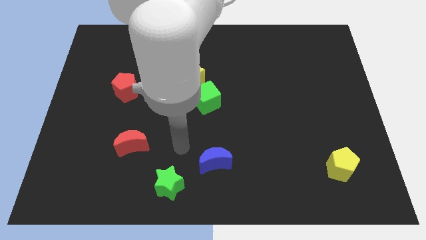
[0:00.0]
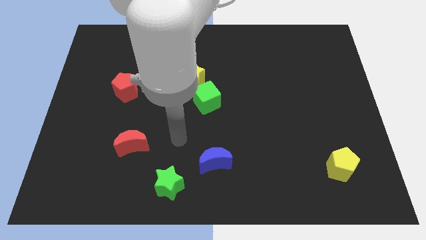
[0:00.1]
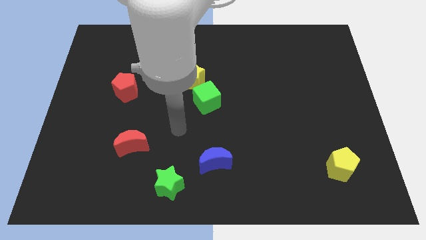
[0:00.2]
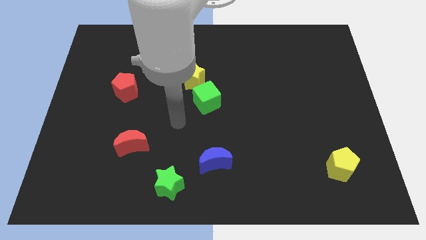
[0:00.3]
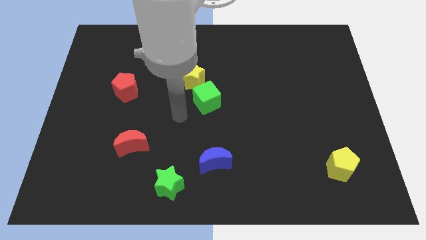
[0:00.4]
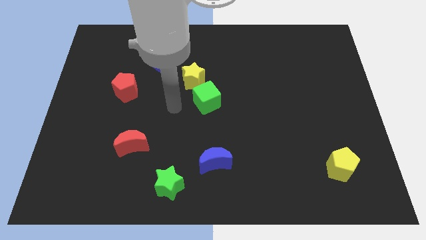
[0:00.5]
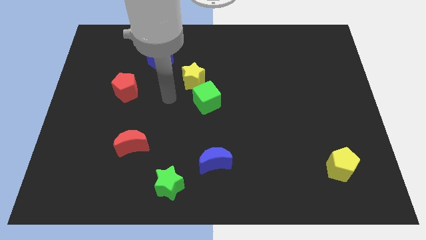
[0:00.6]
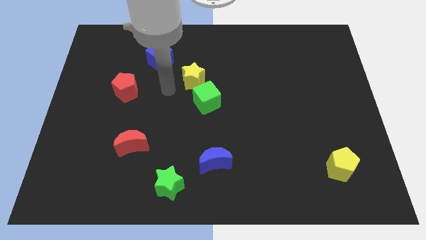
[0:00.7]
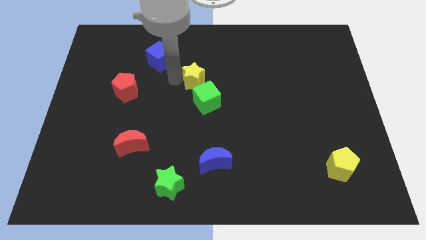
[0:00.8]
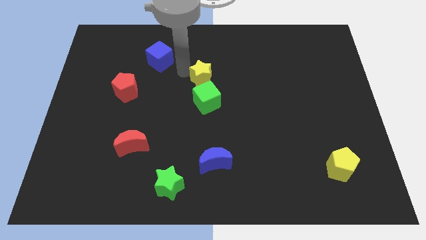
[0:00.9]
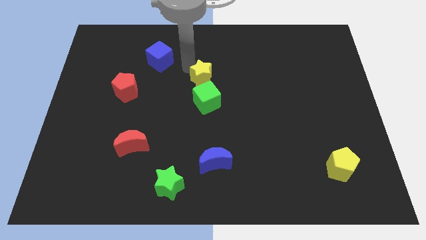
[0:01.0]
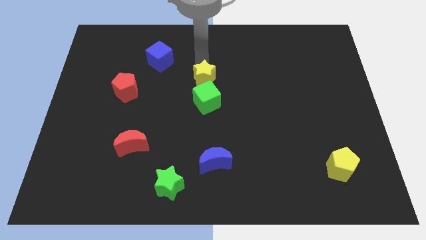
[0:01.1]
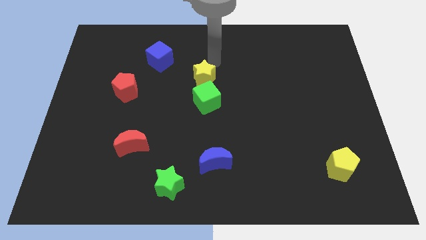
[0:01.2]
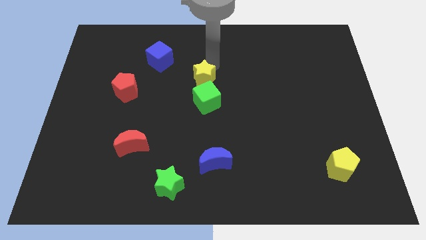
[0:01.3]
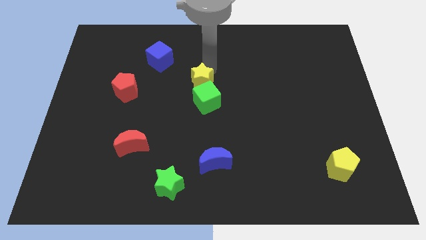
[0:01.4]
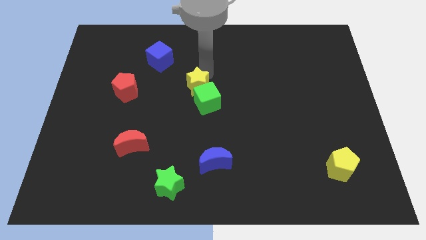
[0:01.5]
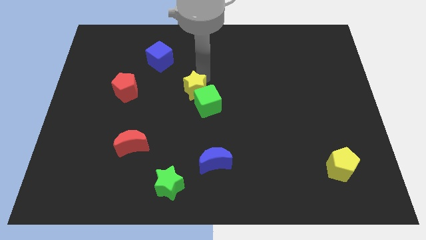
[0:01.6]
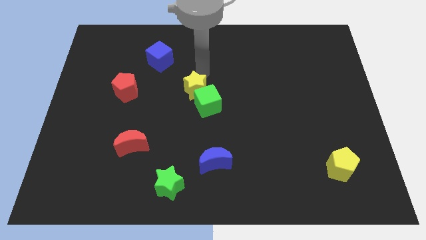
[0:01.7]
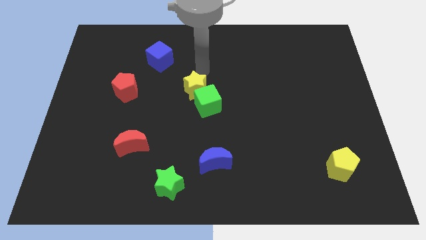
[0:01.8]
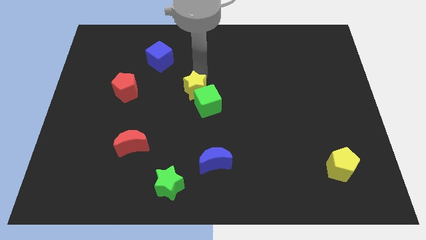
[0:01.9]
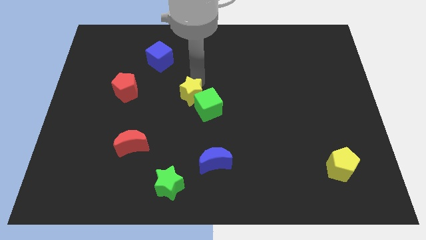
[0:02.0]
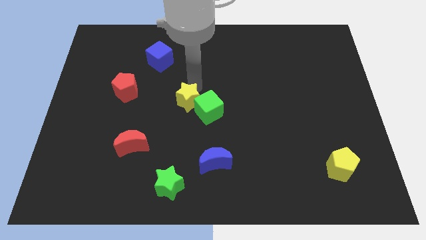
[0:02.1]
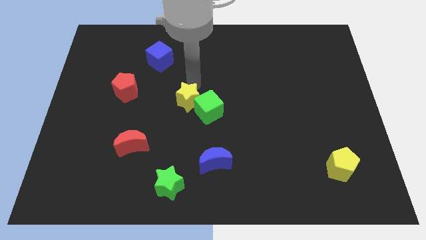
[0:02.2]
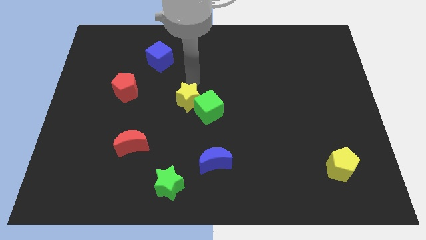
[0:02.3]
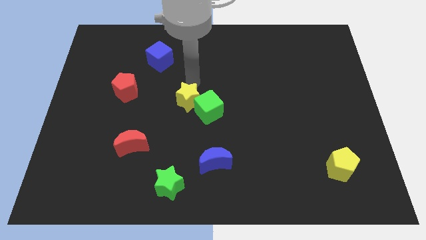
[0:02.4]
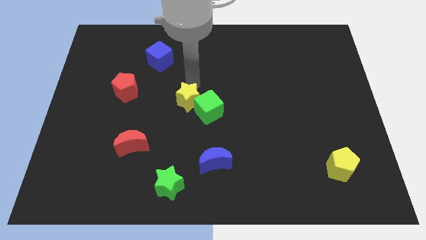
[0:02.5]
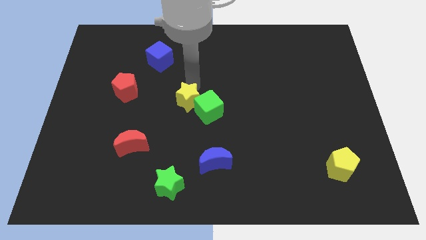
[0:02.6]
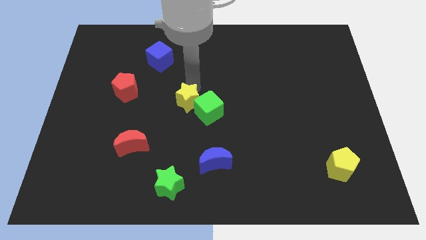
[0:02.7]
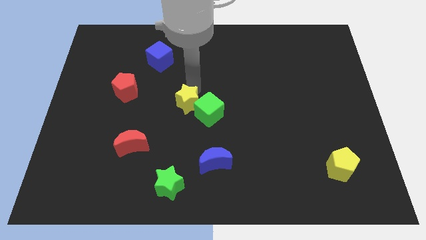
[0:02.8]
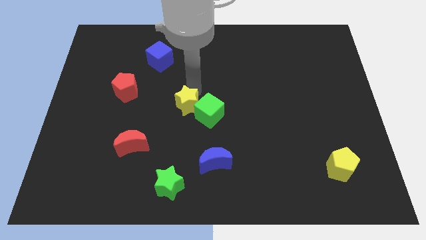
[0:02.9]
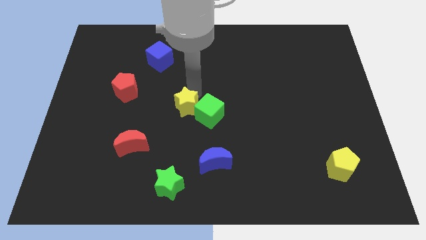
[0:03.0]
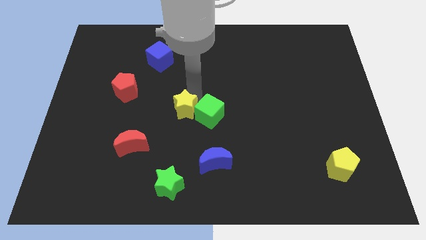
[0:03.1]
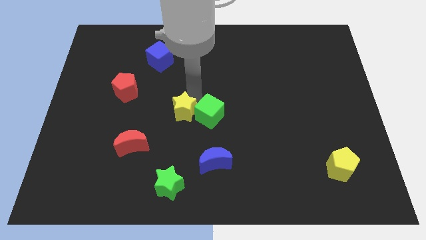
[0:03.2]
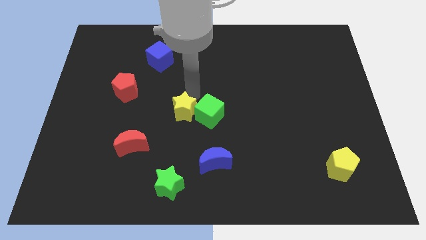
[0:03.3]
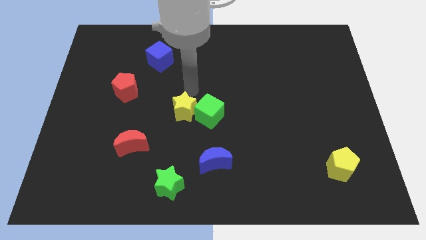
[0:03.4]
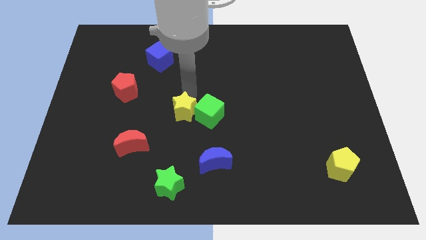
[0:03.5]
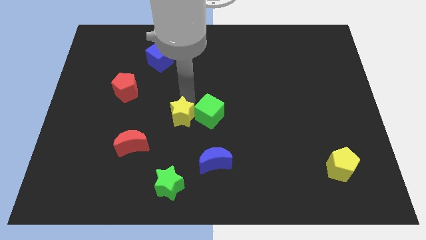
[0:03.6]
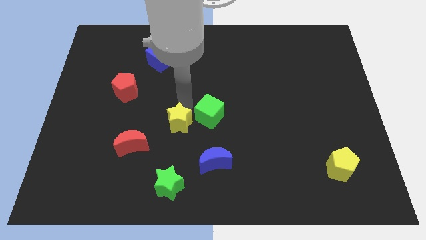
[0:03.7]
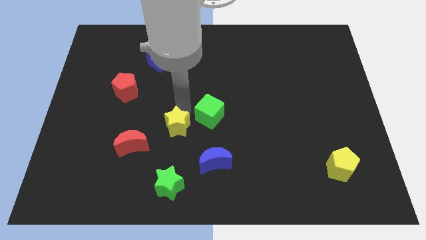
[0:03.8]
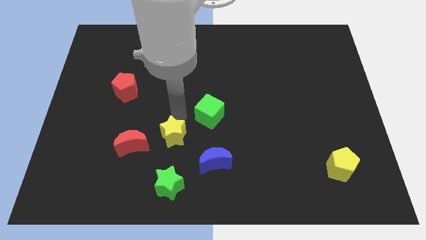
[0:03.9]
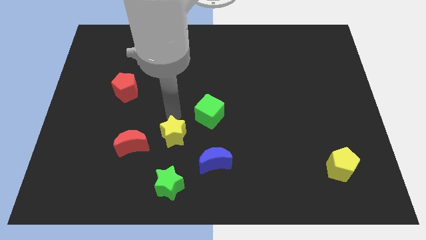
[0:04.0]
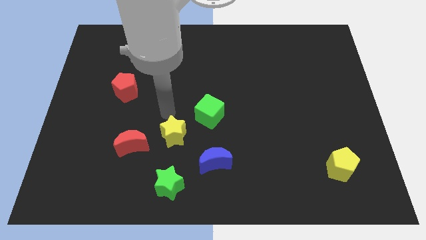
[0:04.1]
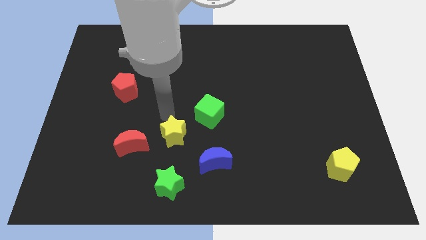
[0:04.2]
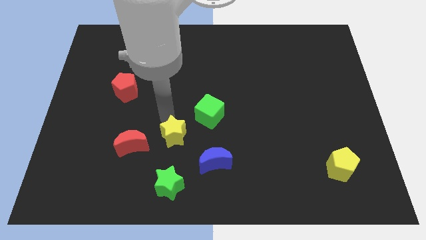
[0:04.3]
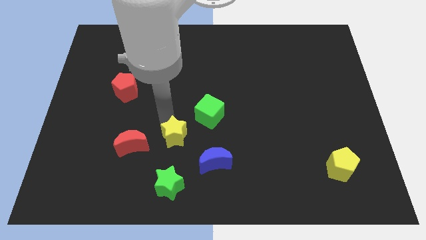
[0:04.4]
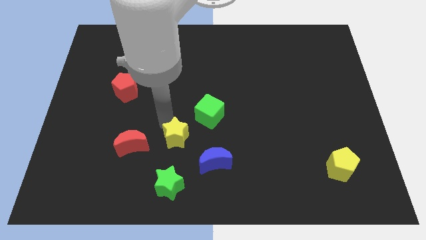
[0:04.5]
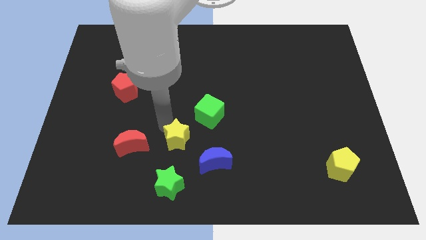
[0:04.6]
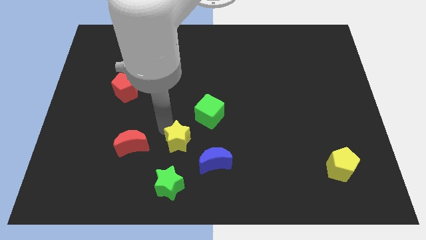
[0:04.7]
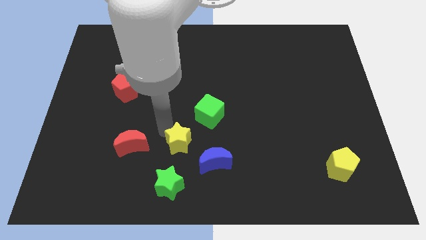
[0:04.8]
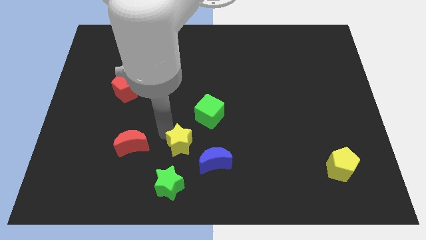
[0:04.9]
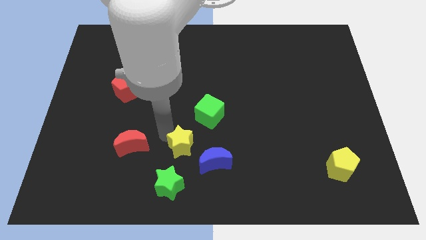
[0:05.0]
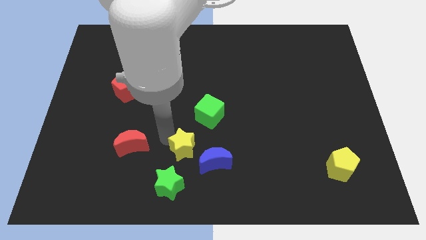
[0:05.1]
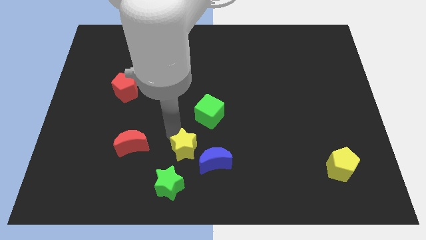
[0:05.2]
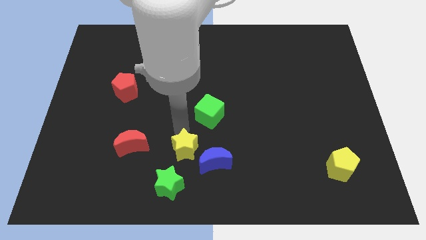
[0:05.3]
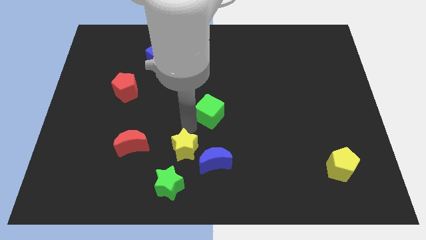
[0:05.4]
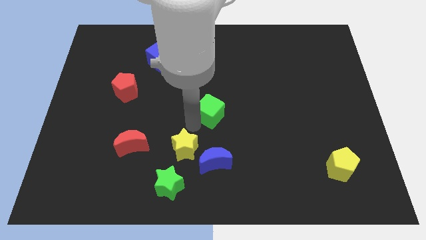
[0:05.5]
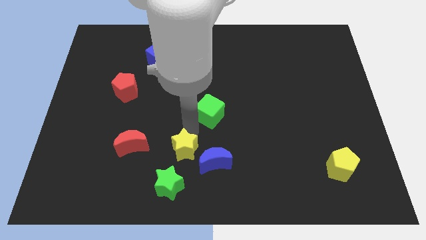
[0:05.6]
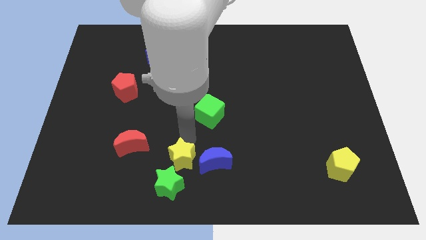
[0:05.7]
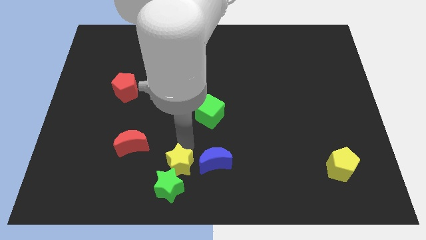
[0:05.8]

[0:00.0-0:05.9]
slide the yellow star towards the green star

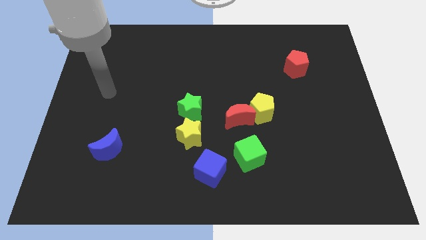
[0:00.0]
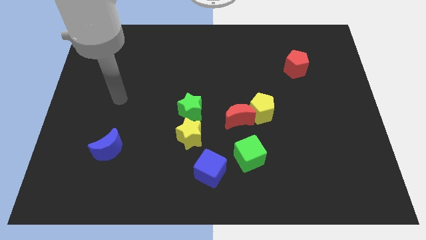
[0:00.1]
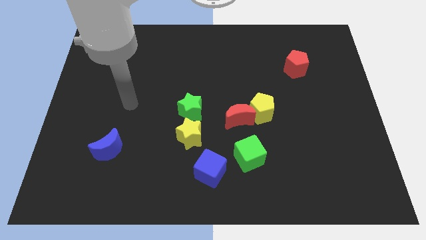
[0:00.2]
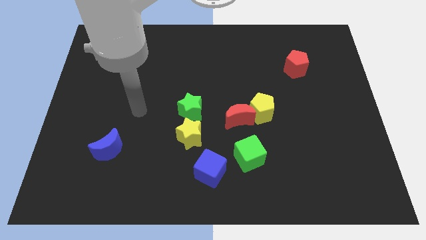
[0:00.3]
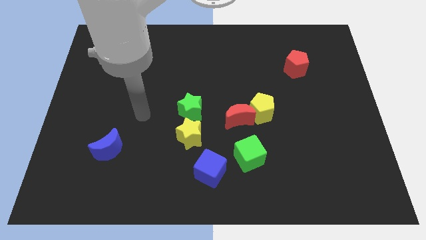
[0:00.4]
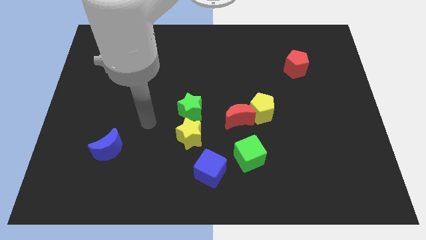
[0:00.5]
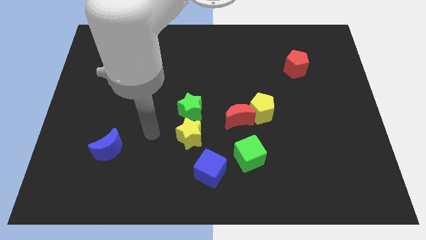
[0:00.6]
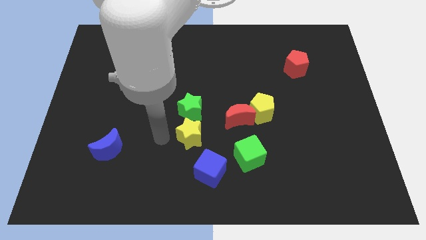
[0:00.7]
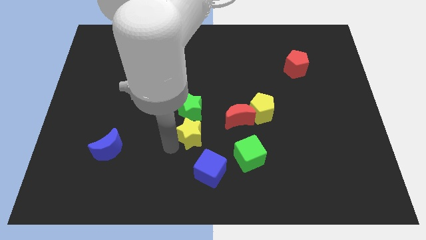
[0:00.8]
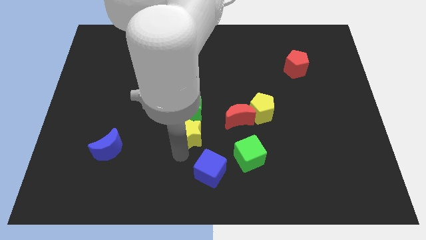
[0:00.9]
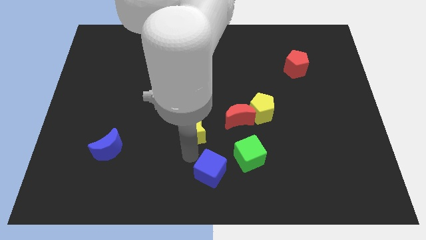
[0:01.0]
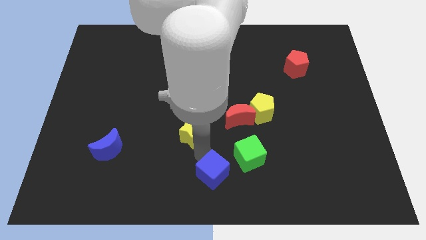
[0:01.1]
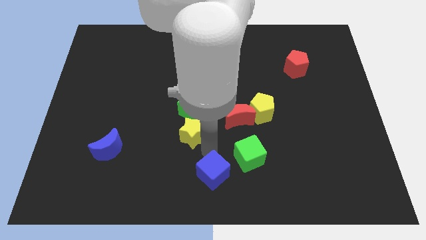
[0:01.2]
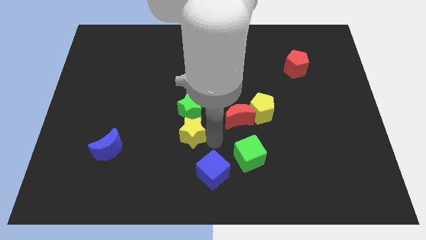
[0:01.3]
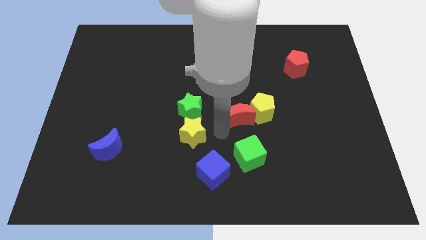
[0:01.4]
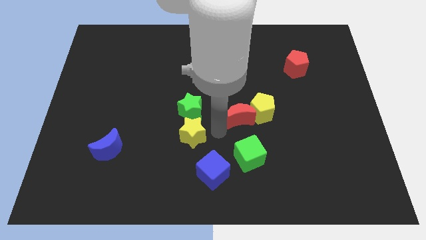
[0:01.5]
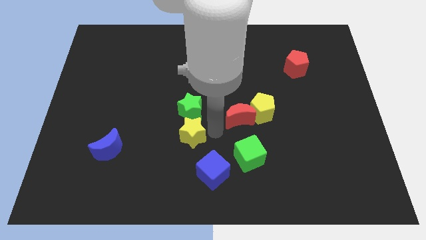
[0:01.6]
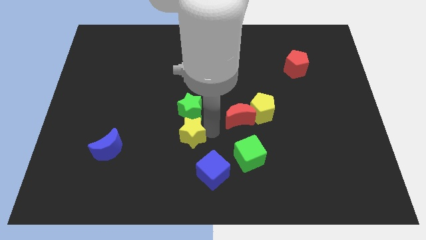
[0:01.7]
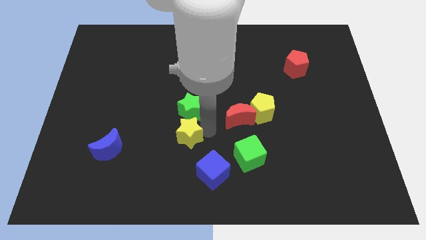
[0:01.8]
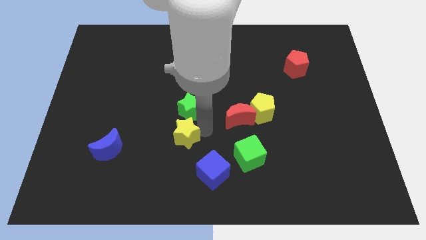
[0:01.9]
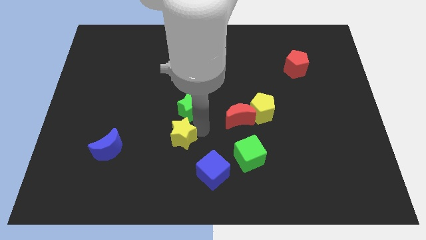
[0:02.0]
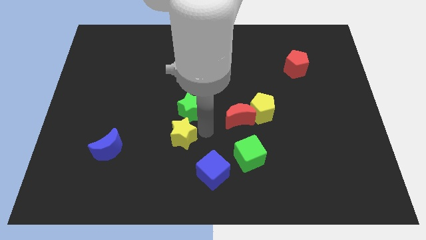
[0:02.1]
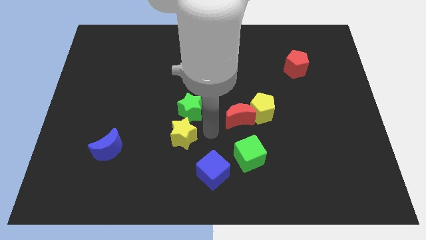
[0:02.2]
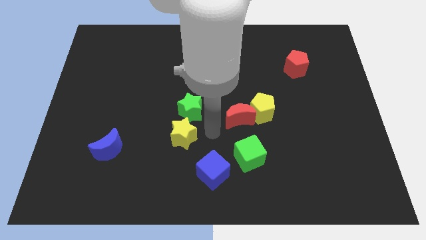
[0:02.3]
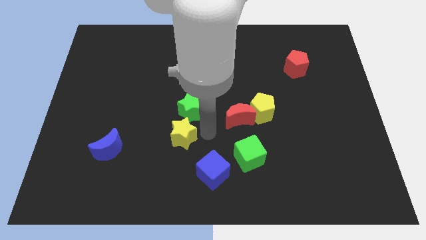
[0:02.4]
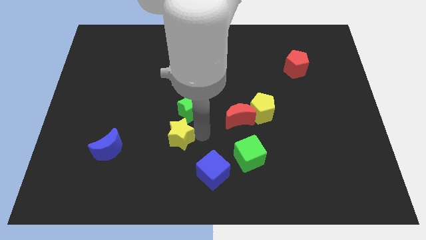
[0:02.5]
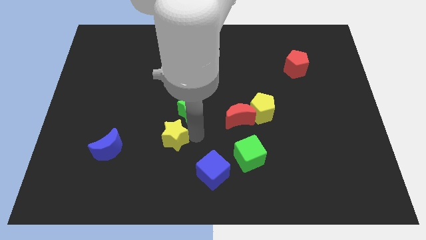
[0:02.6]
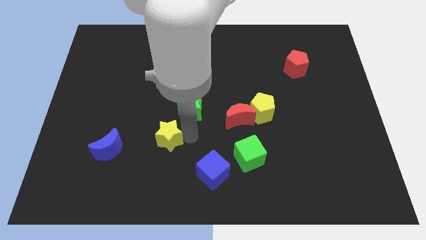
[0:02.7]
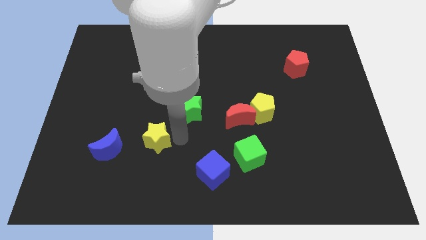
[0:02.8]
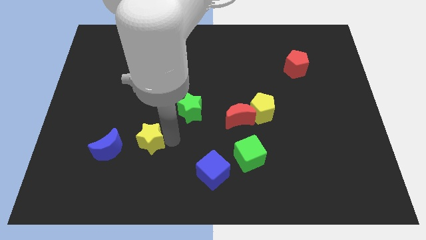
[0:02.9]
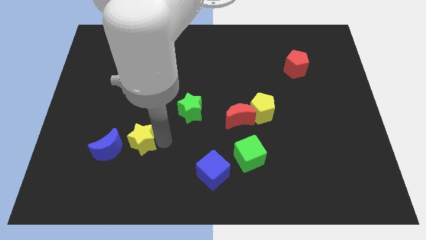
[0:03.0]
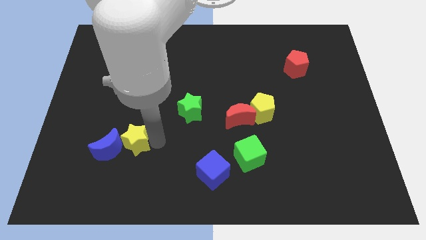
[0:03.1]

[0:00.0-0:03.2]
slide the yellow star towards the blue moon
